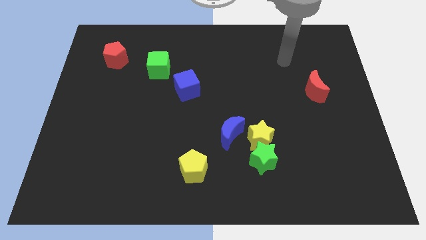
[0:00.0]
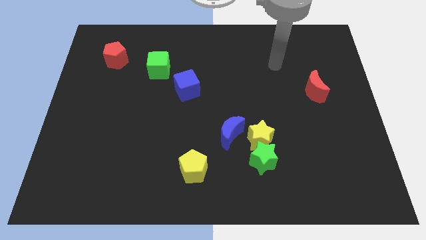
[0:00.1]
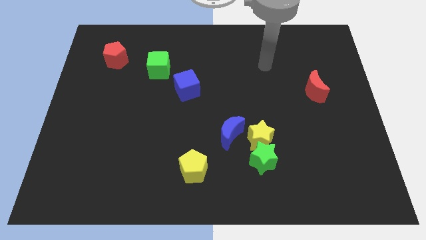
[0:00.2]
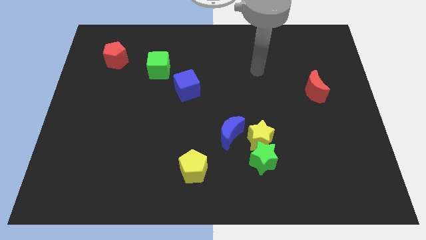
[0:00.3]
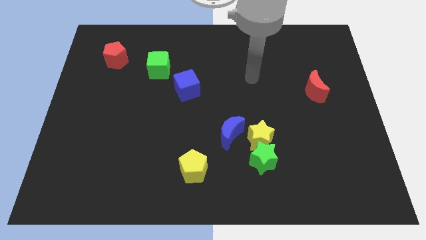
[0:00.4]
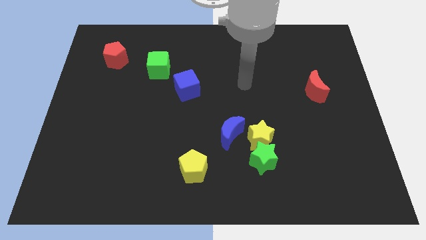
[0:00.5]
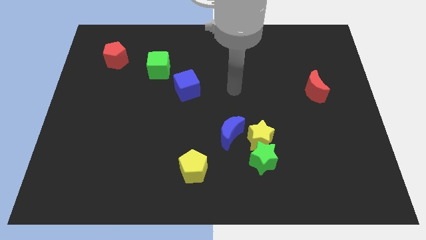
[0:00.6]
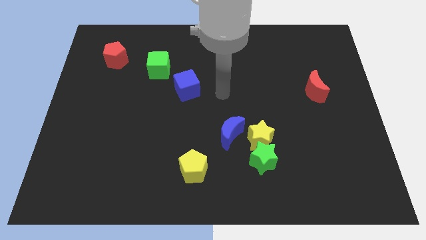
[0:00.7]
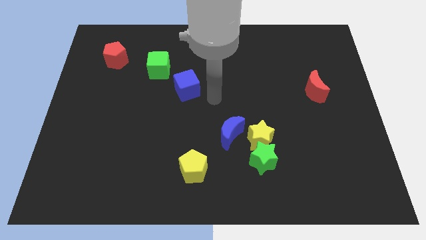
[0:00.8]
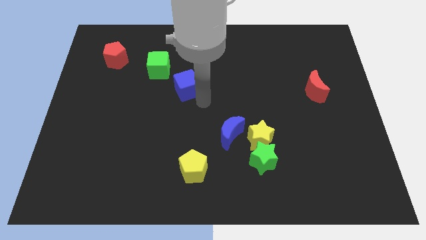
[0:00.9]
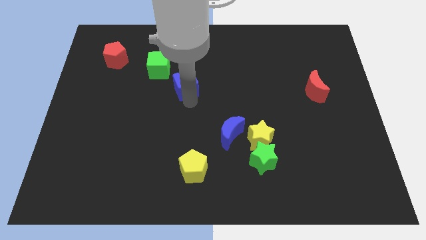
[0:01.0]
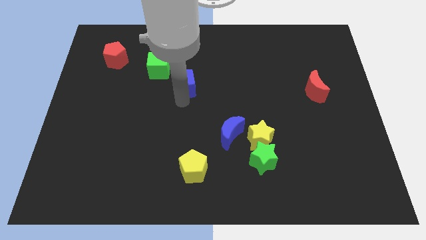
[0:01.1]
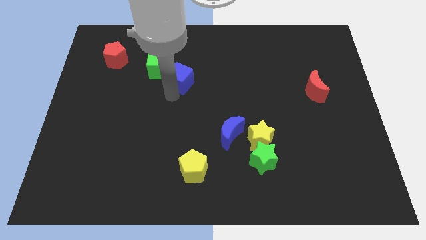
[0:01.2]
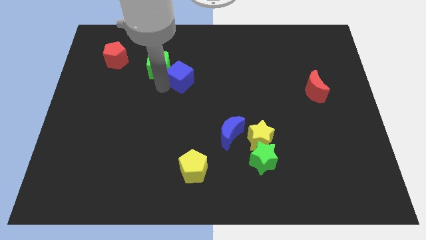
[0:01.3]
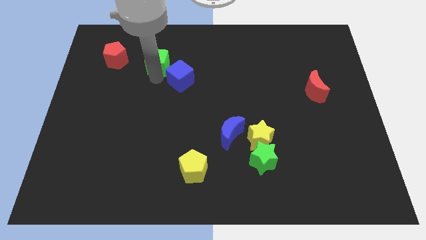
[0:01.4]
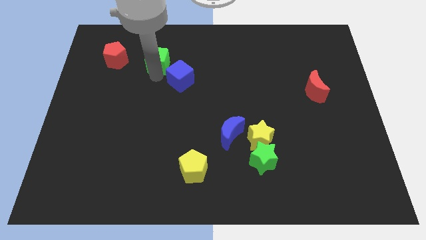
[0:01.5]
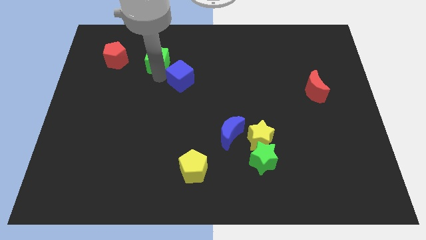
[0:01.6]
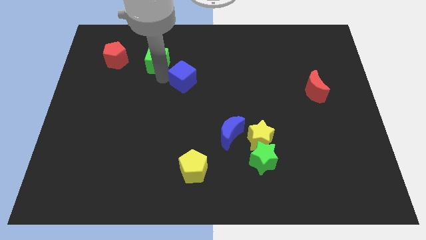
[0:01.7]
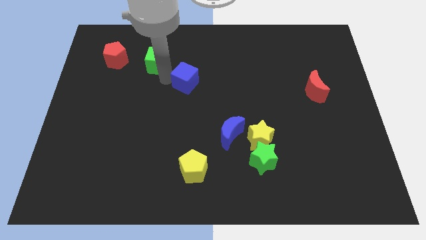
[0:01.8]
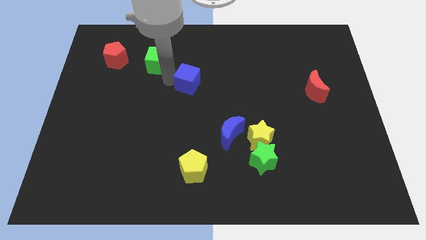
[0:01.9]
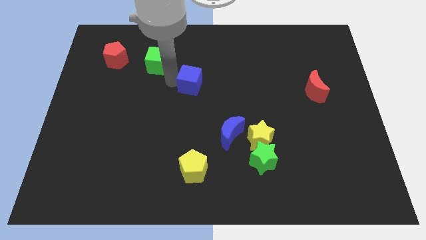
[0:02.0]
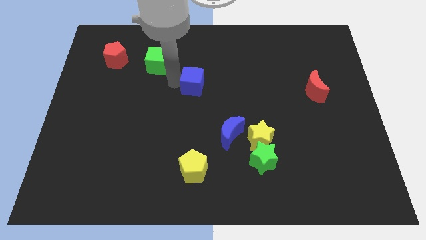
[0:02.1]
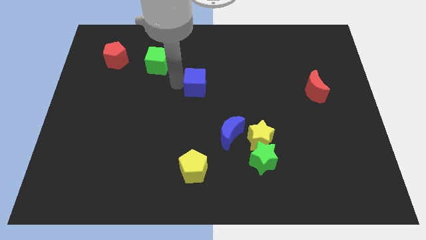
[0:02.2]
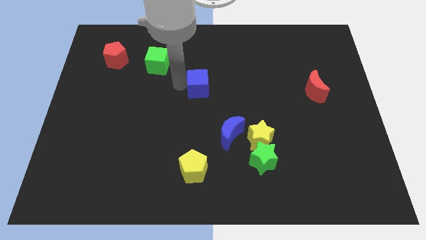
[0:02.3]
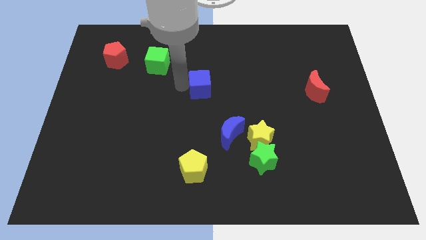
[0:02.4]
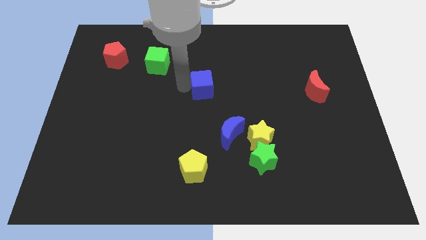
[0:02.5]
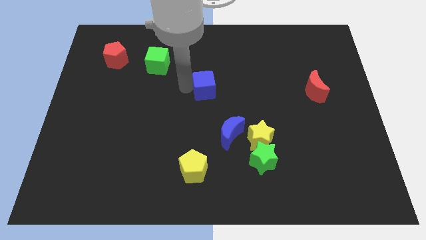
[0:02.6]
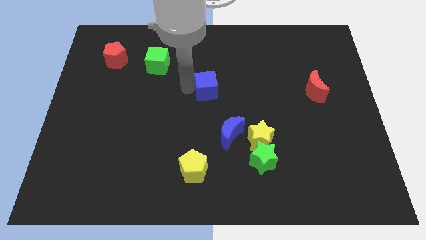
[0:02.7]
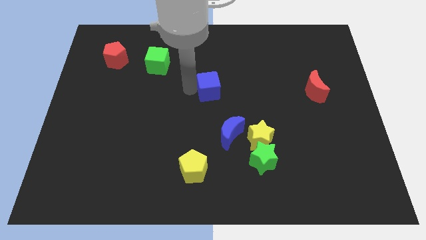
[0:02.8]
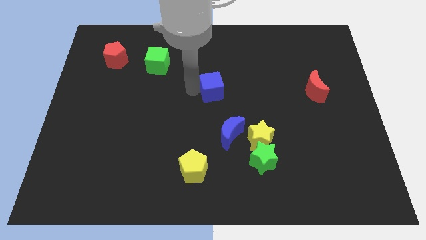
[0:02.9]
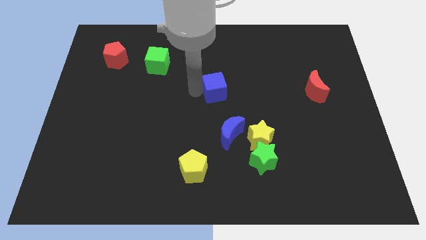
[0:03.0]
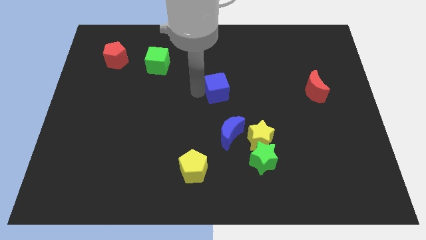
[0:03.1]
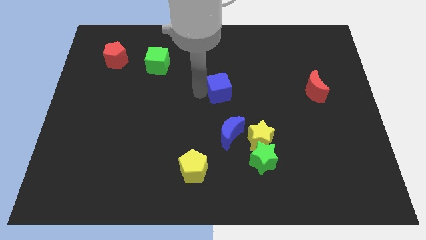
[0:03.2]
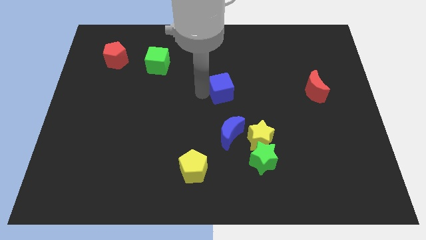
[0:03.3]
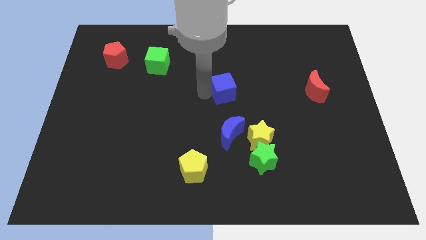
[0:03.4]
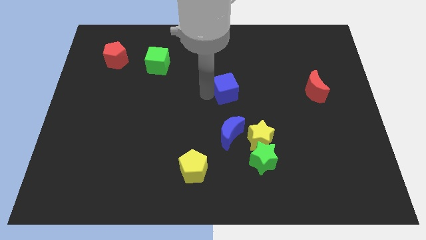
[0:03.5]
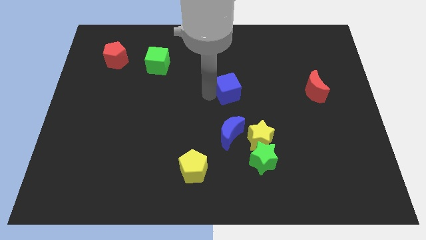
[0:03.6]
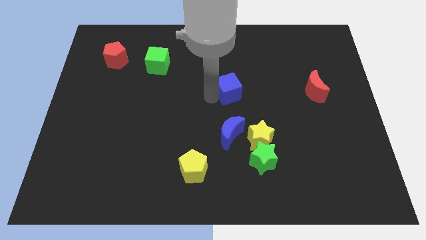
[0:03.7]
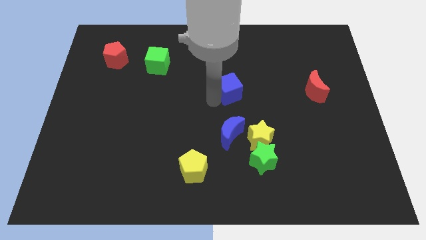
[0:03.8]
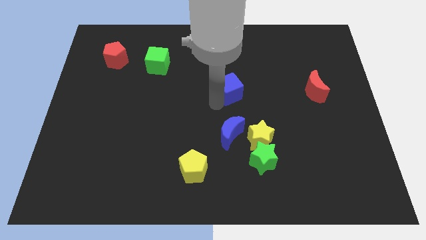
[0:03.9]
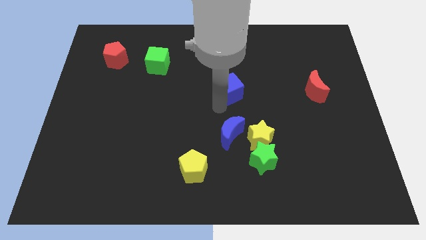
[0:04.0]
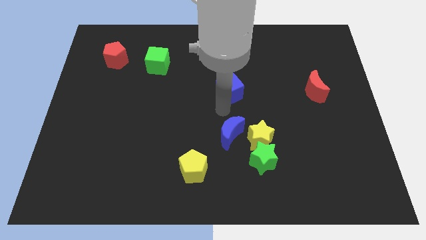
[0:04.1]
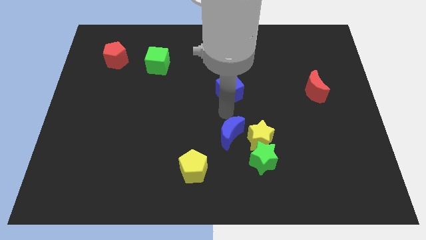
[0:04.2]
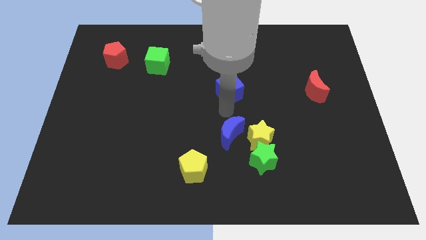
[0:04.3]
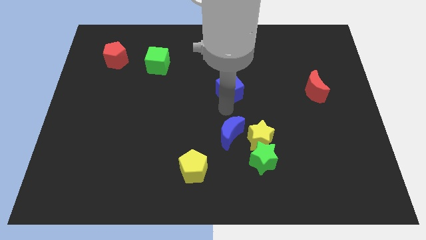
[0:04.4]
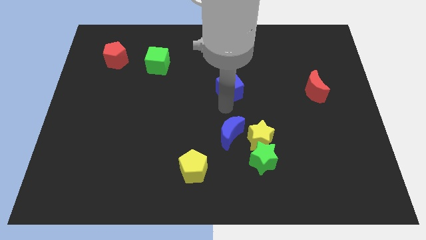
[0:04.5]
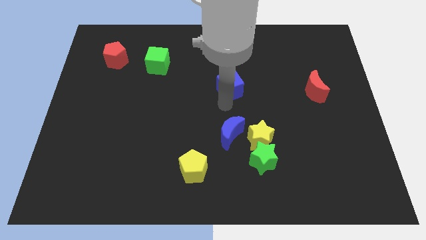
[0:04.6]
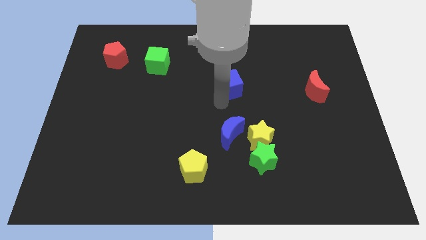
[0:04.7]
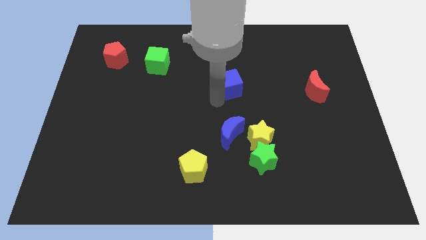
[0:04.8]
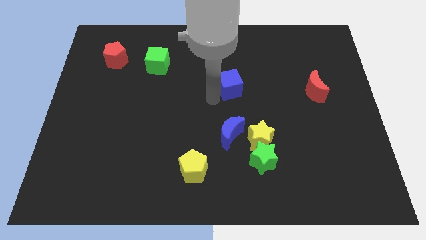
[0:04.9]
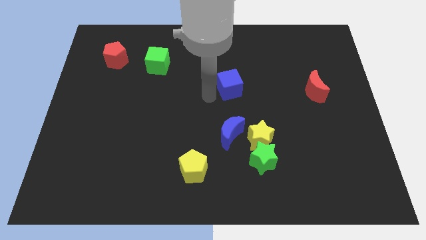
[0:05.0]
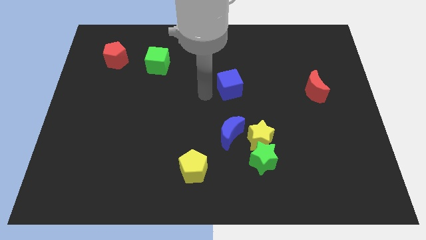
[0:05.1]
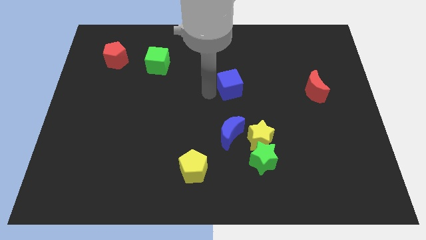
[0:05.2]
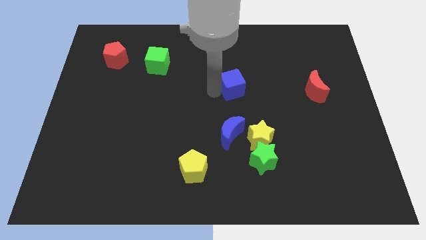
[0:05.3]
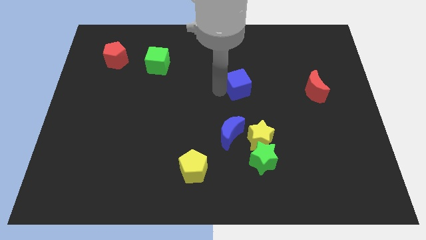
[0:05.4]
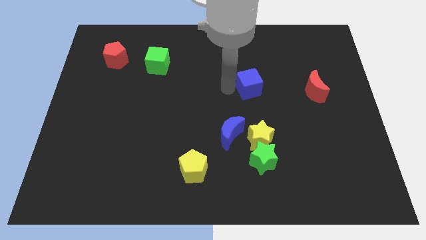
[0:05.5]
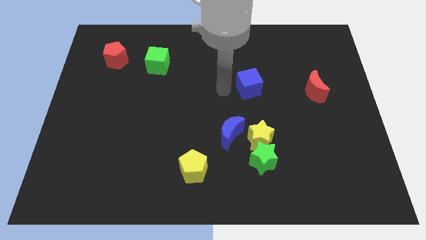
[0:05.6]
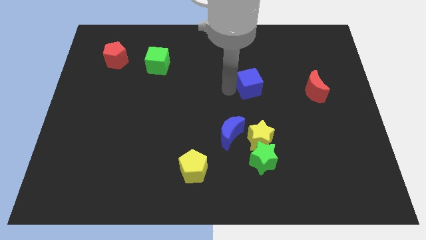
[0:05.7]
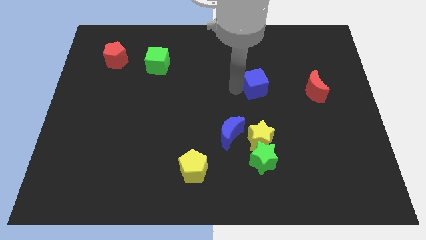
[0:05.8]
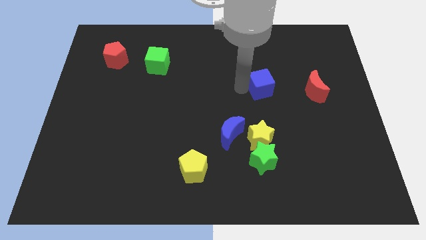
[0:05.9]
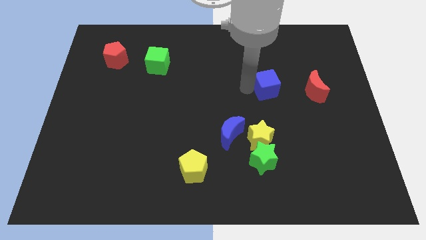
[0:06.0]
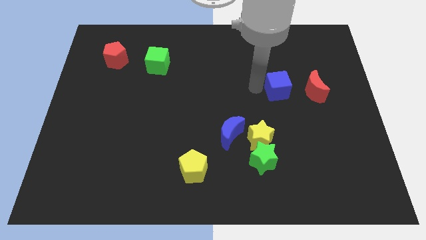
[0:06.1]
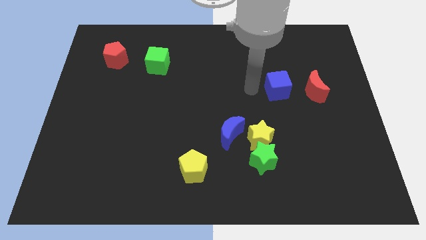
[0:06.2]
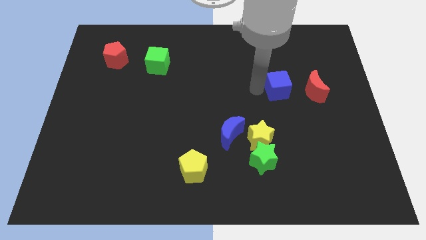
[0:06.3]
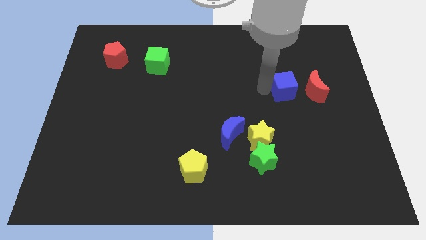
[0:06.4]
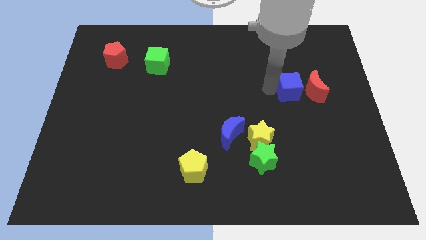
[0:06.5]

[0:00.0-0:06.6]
slide the blue cube close to the red moon

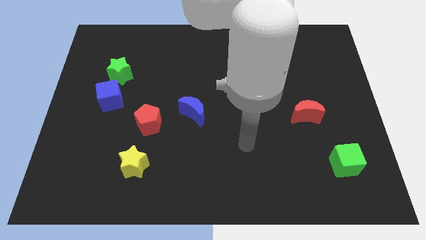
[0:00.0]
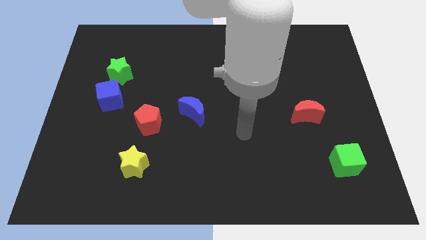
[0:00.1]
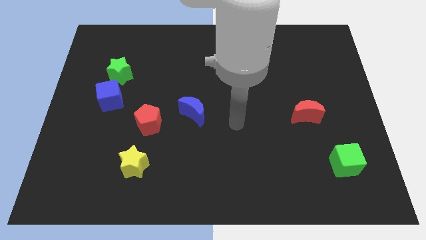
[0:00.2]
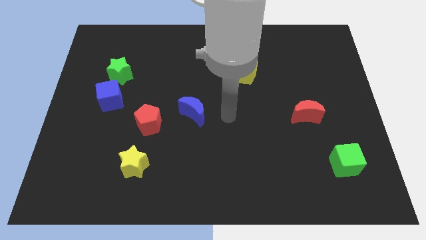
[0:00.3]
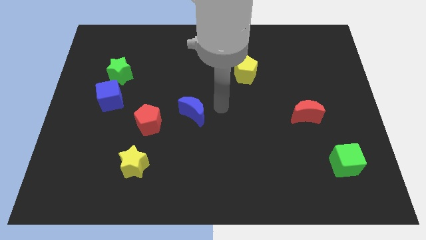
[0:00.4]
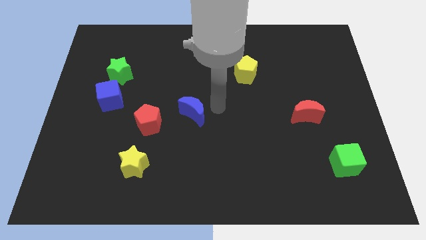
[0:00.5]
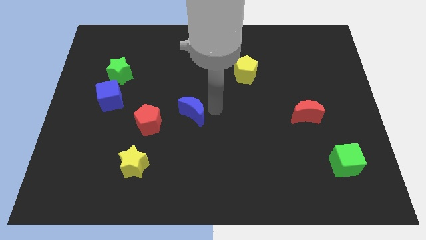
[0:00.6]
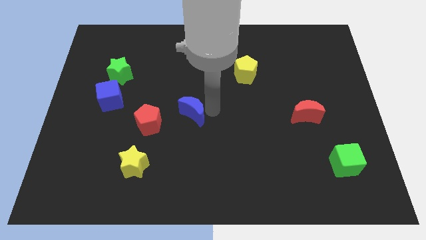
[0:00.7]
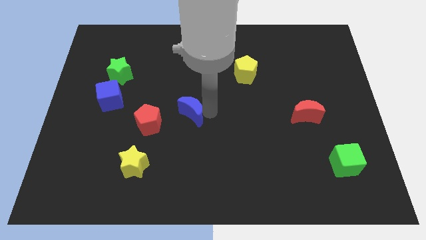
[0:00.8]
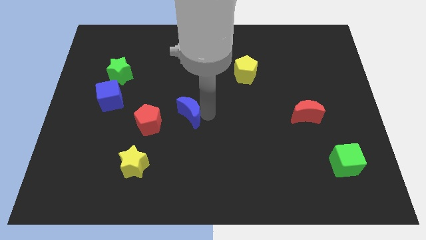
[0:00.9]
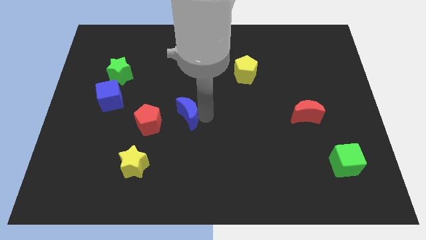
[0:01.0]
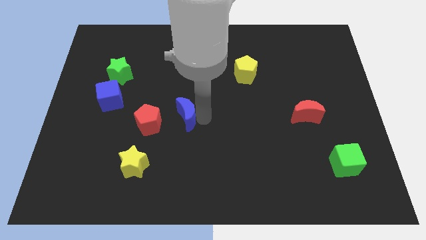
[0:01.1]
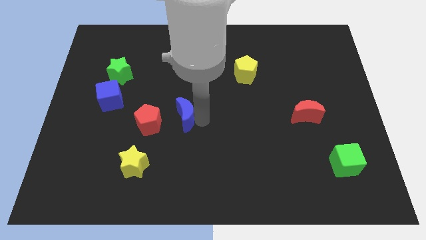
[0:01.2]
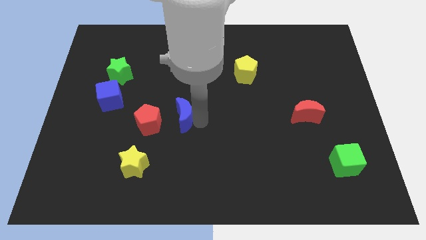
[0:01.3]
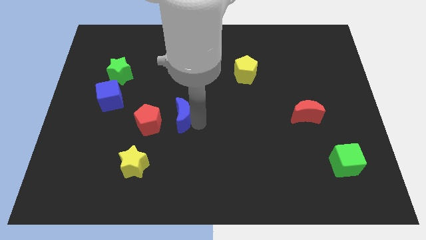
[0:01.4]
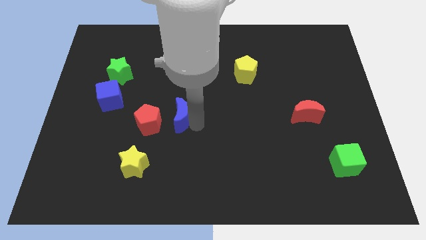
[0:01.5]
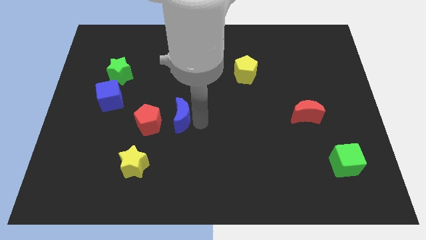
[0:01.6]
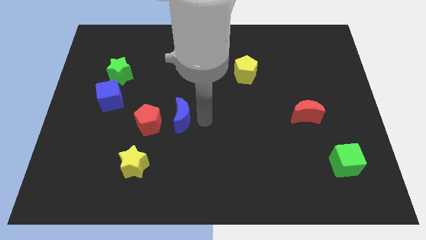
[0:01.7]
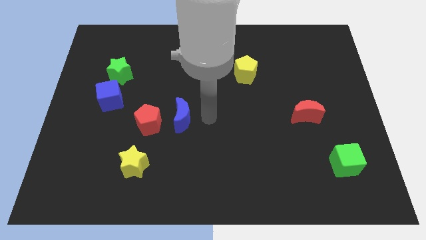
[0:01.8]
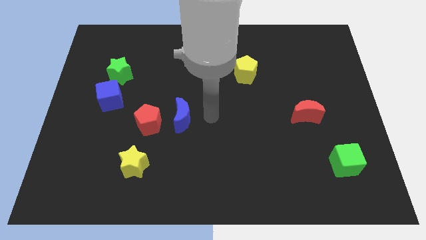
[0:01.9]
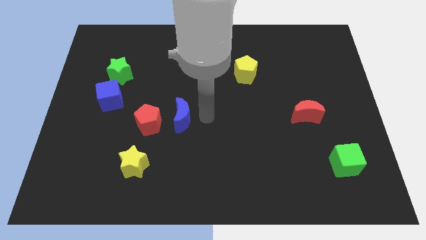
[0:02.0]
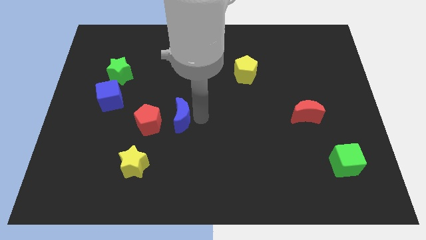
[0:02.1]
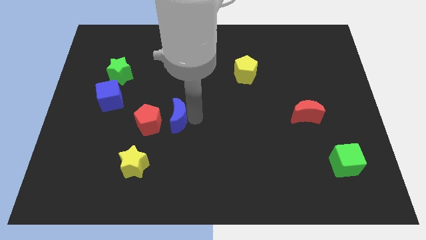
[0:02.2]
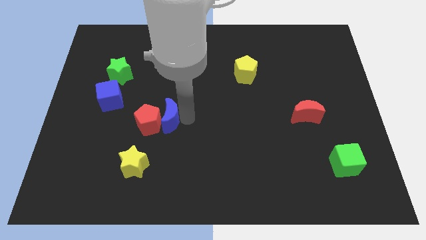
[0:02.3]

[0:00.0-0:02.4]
put the blue moon close to the red pentagon
